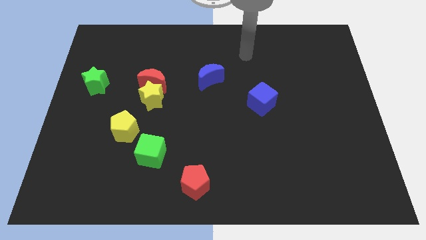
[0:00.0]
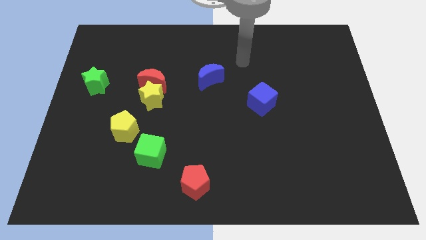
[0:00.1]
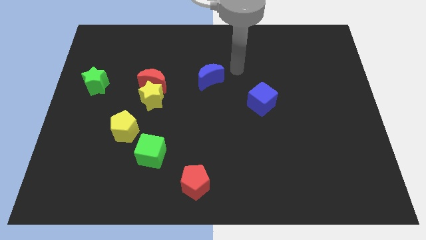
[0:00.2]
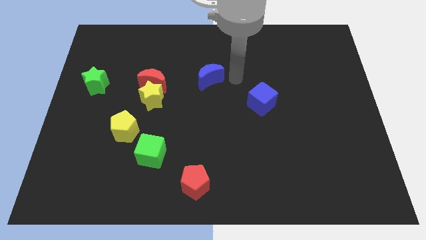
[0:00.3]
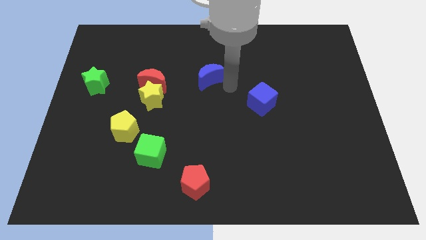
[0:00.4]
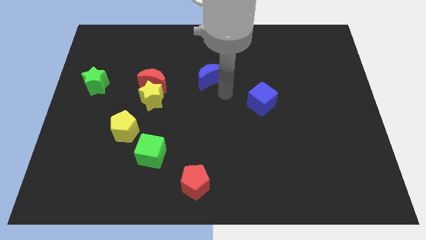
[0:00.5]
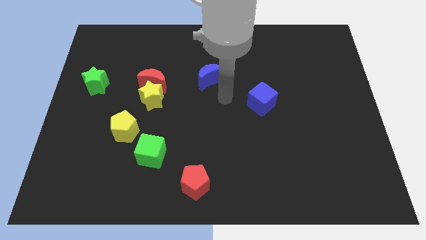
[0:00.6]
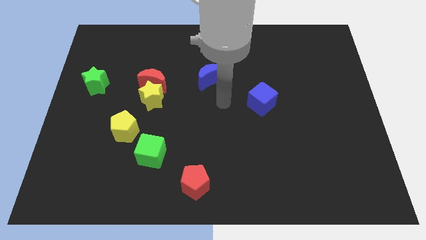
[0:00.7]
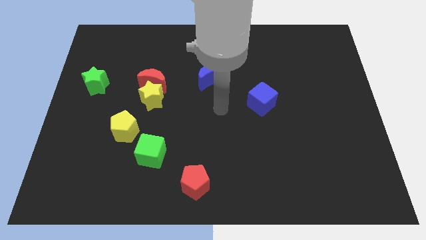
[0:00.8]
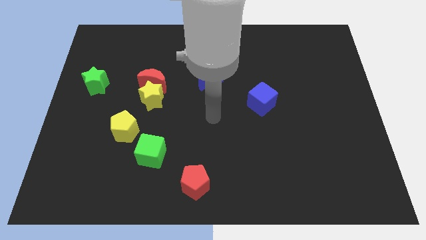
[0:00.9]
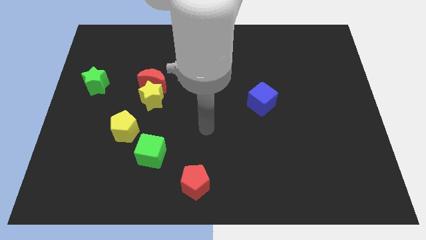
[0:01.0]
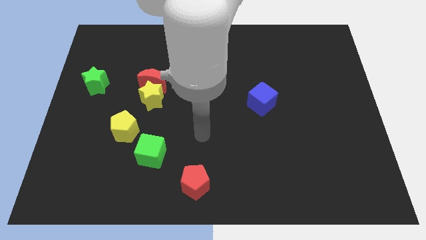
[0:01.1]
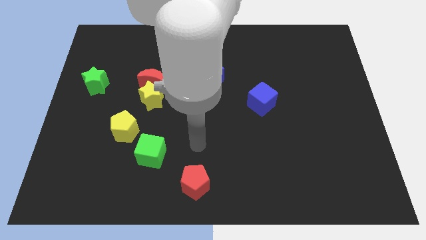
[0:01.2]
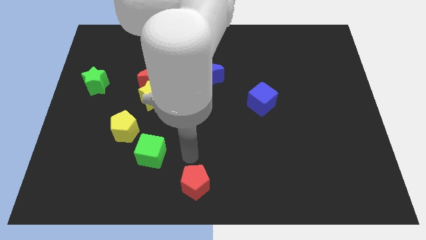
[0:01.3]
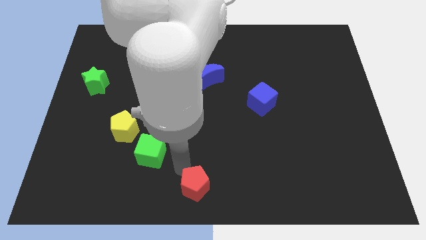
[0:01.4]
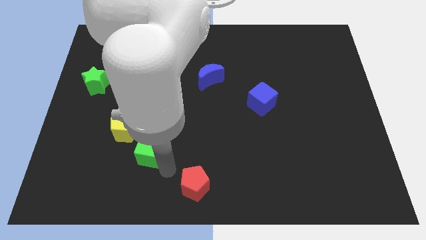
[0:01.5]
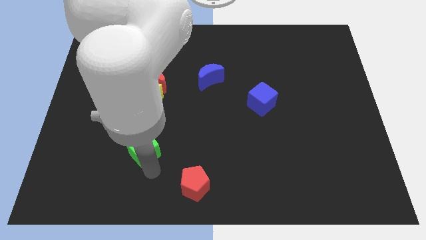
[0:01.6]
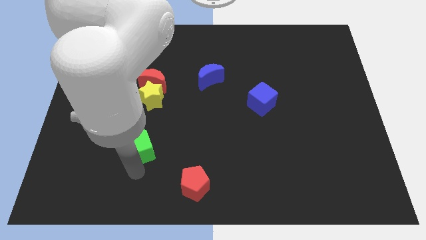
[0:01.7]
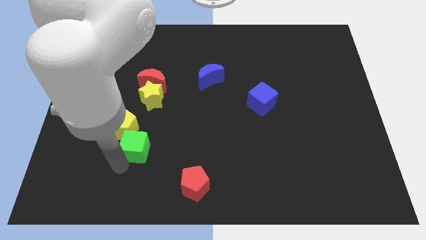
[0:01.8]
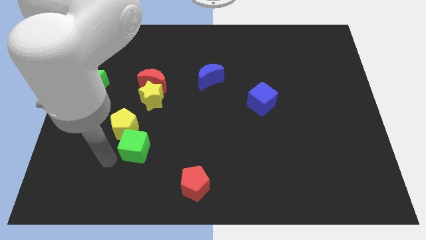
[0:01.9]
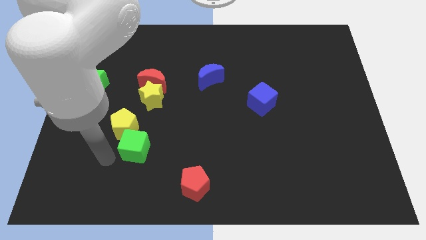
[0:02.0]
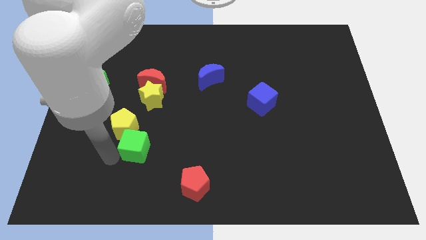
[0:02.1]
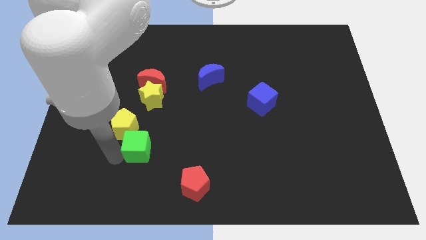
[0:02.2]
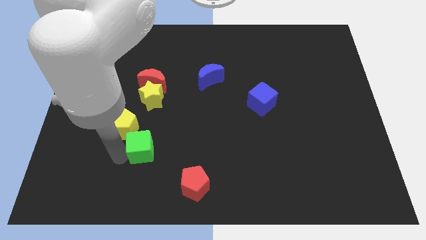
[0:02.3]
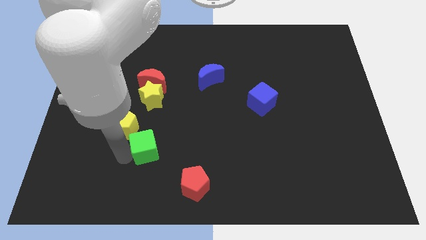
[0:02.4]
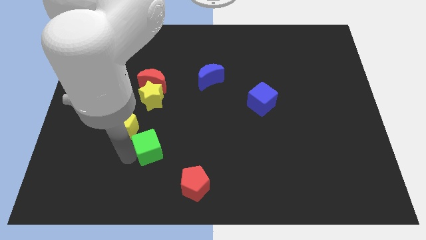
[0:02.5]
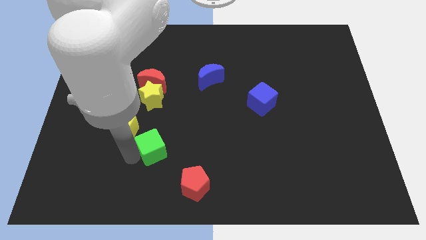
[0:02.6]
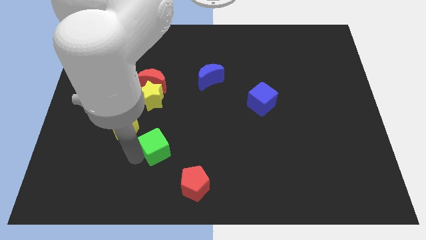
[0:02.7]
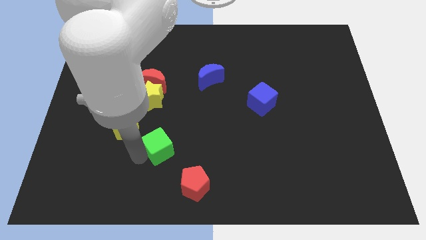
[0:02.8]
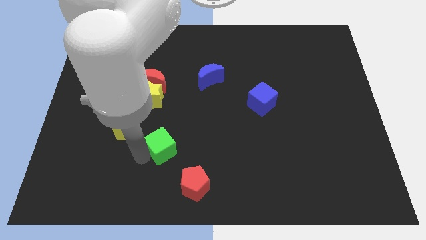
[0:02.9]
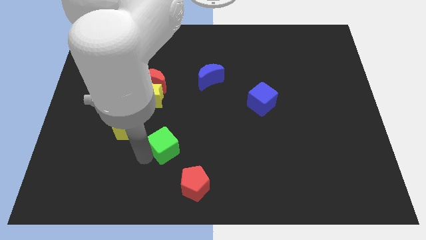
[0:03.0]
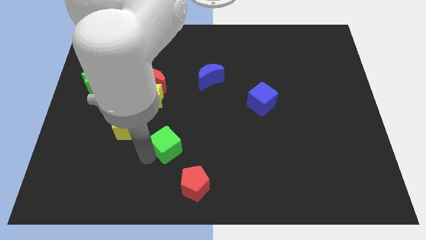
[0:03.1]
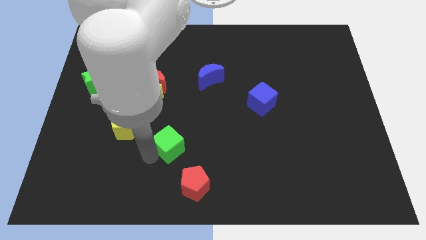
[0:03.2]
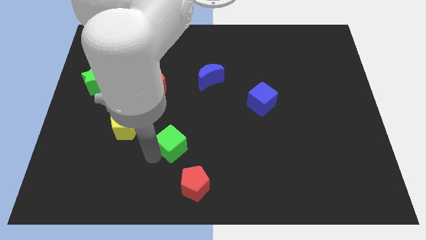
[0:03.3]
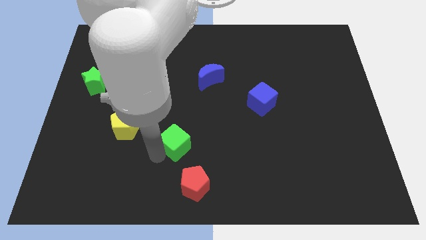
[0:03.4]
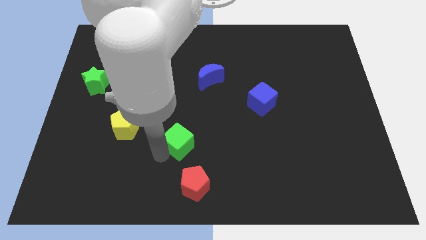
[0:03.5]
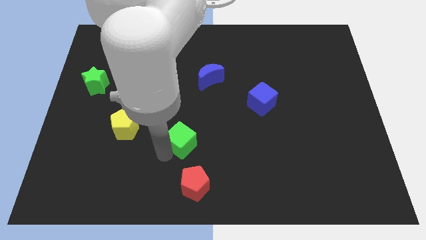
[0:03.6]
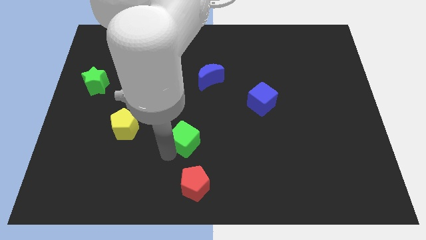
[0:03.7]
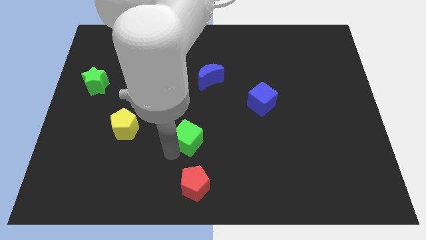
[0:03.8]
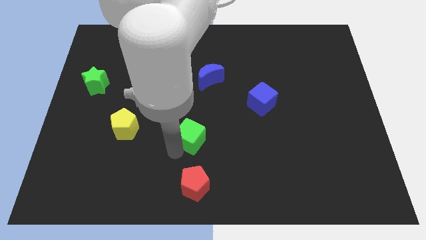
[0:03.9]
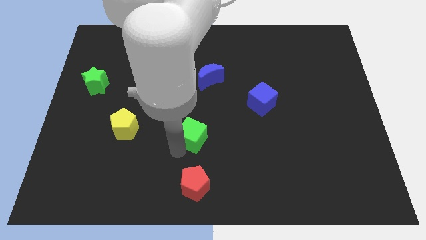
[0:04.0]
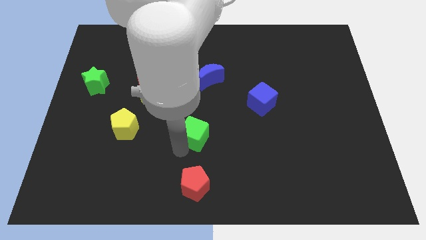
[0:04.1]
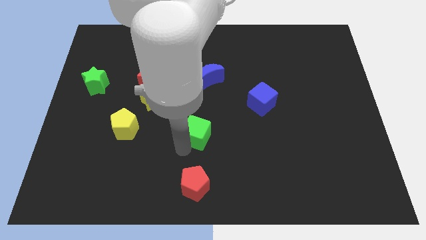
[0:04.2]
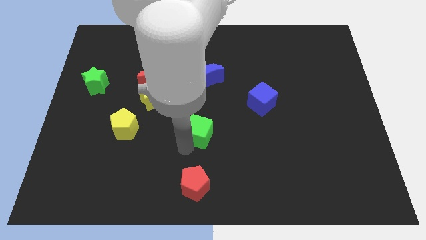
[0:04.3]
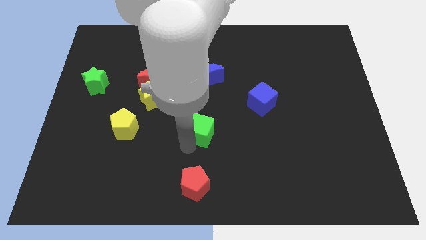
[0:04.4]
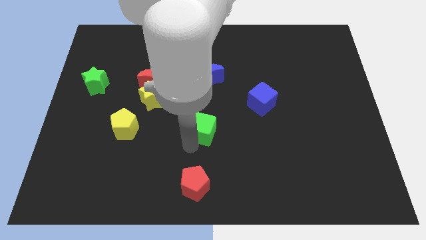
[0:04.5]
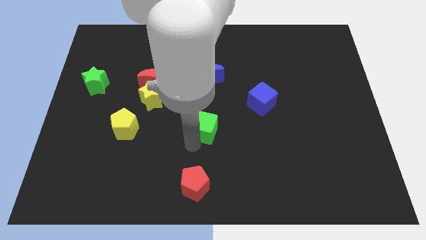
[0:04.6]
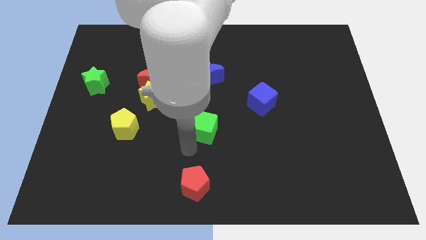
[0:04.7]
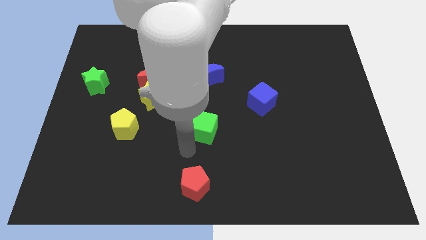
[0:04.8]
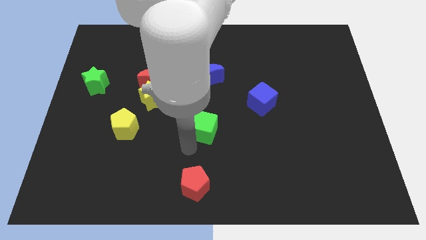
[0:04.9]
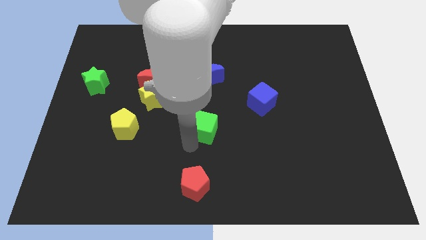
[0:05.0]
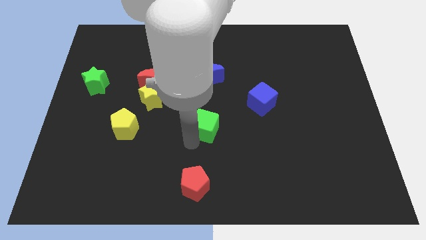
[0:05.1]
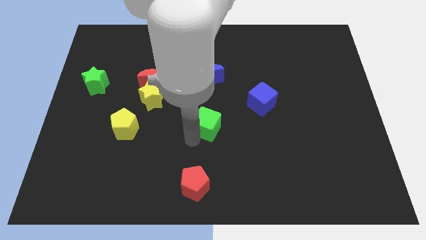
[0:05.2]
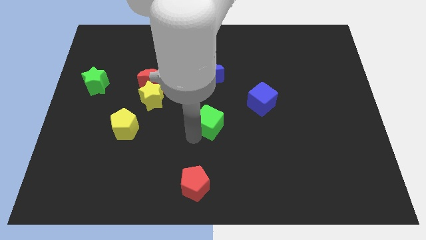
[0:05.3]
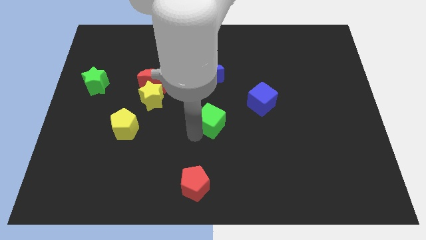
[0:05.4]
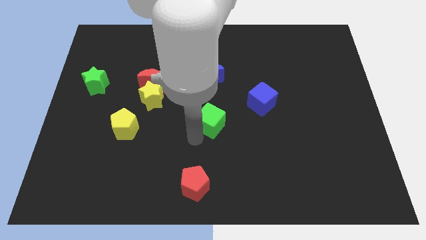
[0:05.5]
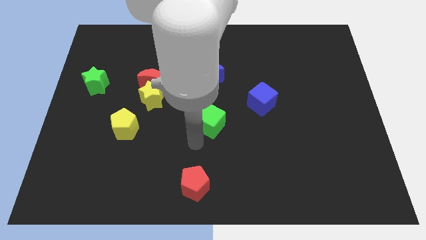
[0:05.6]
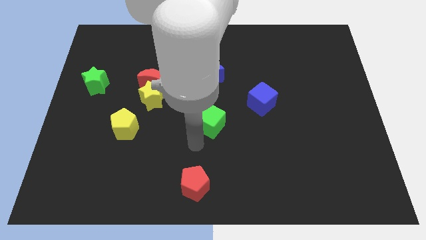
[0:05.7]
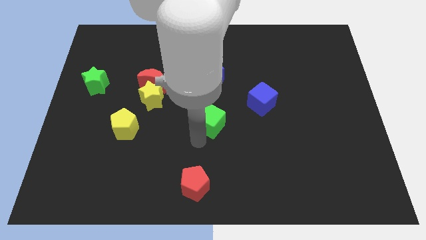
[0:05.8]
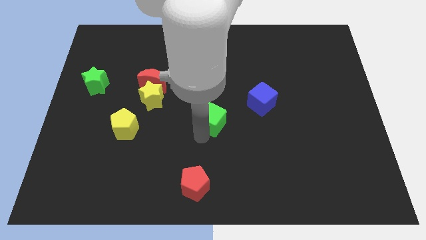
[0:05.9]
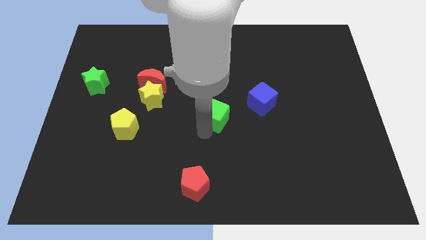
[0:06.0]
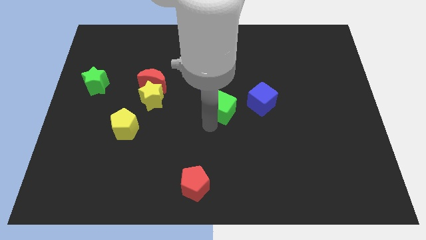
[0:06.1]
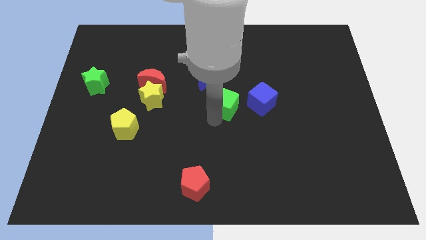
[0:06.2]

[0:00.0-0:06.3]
move the green cube up and then to the right

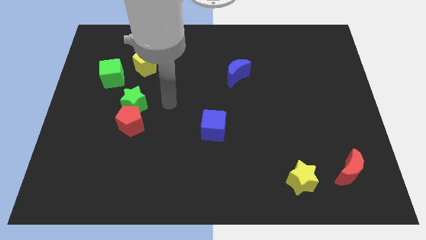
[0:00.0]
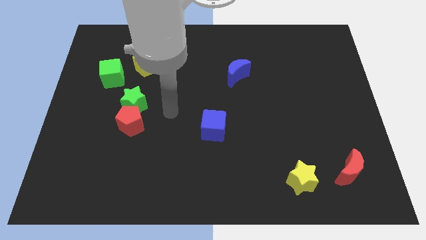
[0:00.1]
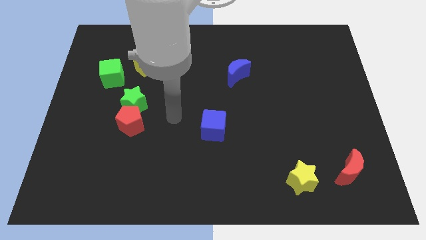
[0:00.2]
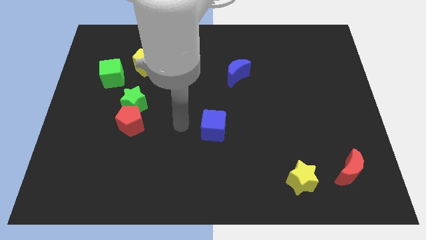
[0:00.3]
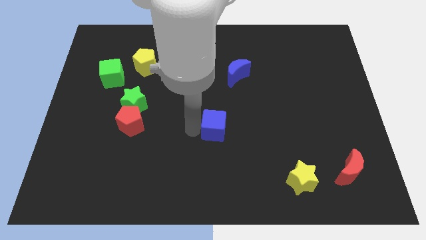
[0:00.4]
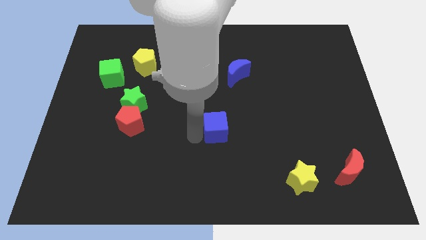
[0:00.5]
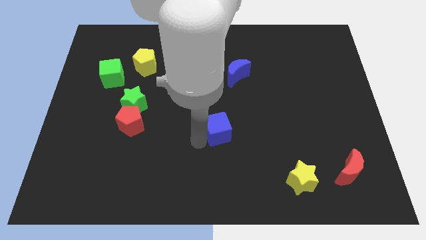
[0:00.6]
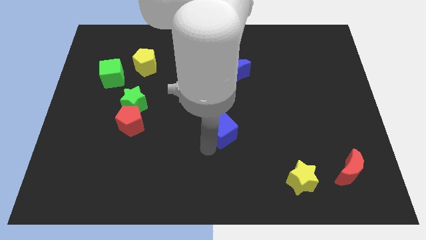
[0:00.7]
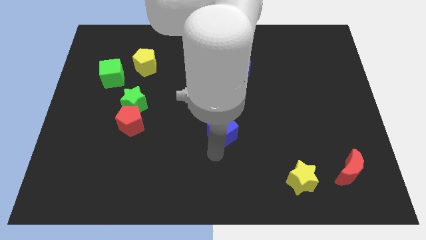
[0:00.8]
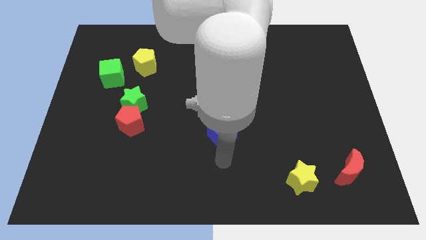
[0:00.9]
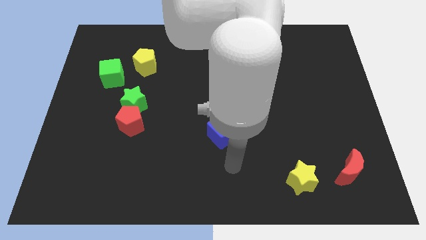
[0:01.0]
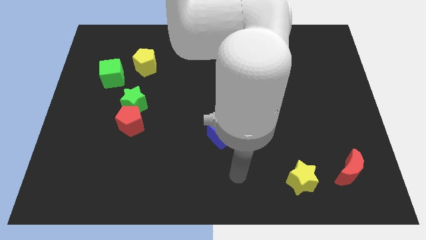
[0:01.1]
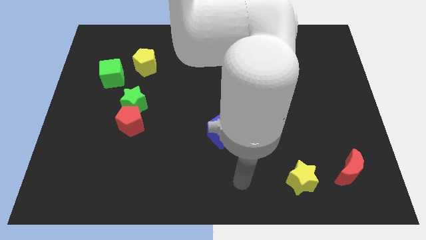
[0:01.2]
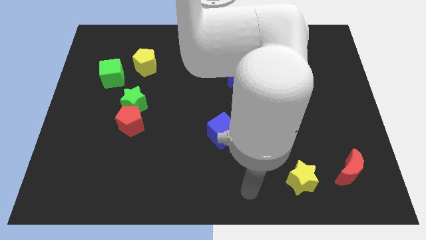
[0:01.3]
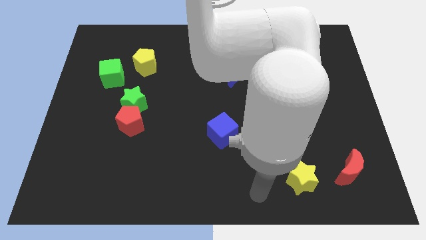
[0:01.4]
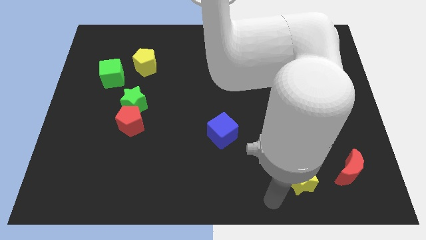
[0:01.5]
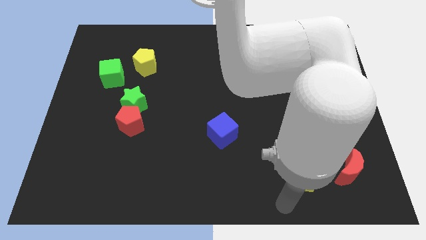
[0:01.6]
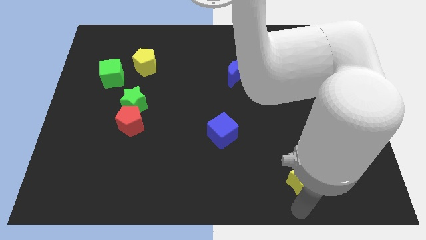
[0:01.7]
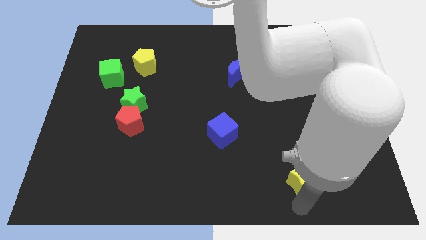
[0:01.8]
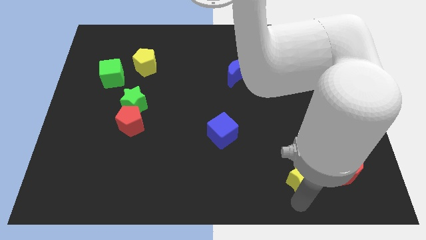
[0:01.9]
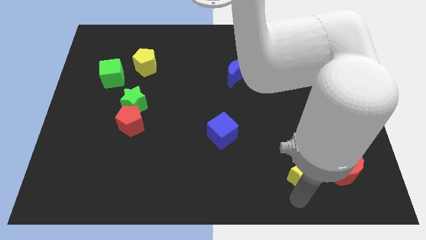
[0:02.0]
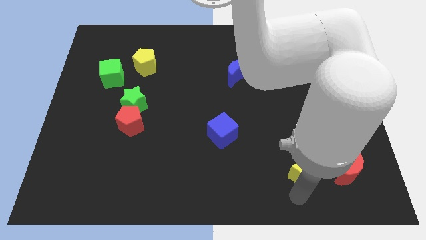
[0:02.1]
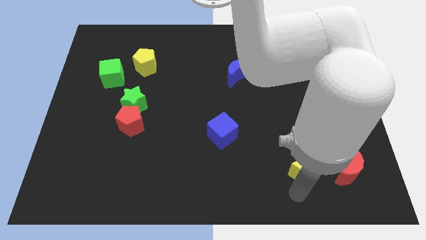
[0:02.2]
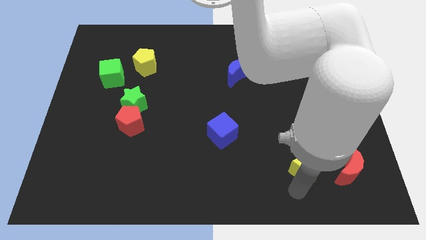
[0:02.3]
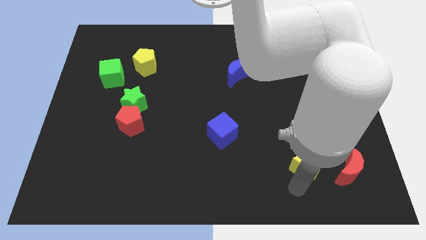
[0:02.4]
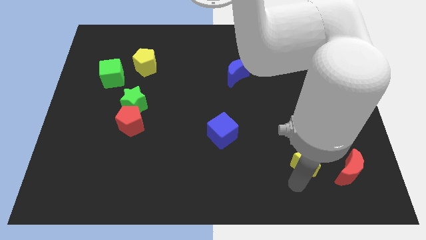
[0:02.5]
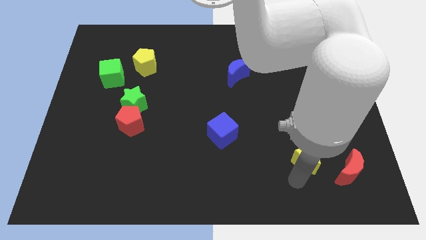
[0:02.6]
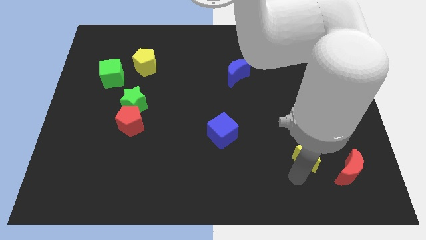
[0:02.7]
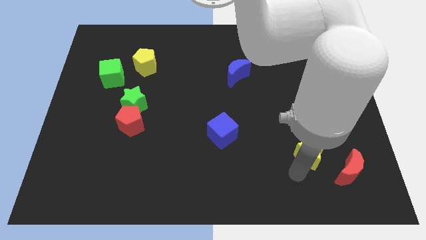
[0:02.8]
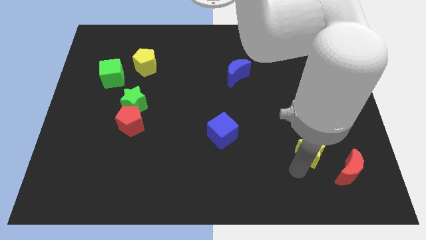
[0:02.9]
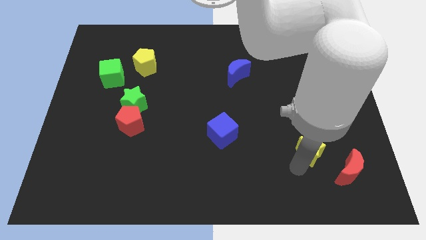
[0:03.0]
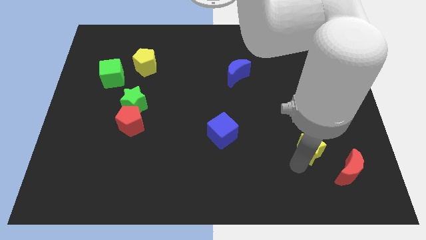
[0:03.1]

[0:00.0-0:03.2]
slide the yellow star a little bit upwards
